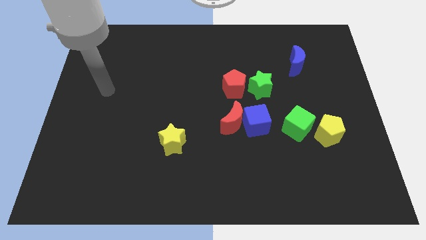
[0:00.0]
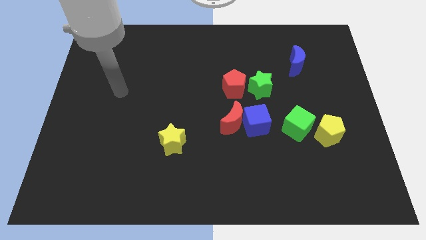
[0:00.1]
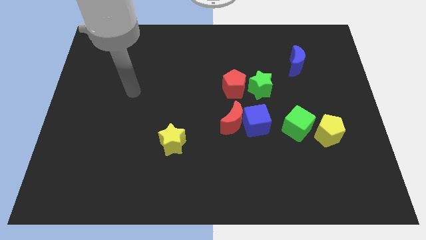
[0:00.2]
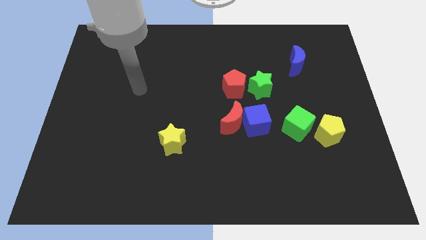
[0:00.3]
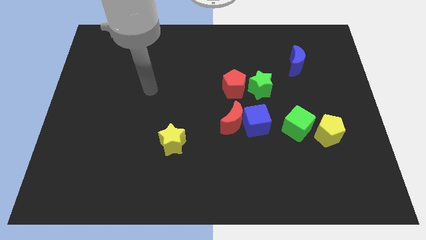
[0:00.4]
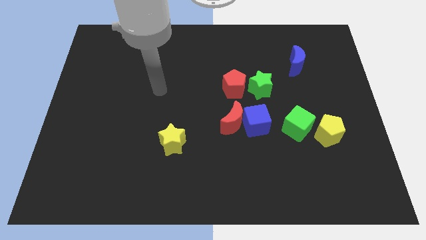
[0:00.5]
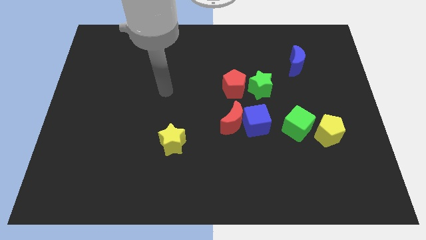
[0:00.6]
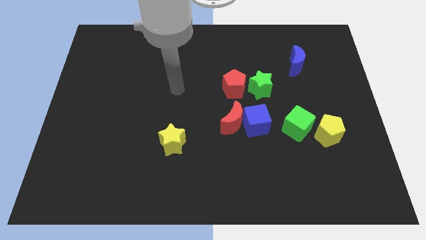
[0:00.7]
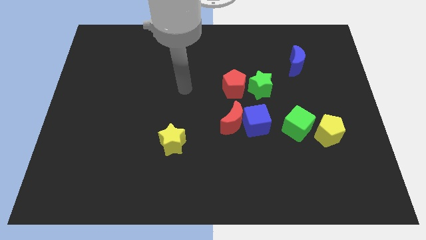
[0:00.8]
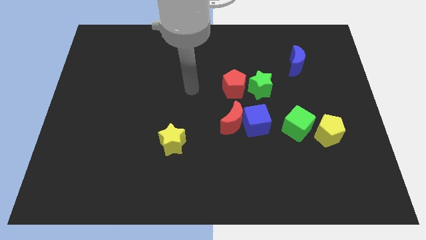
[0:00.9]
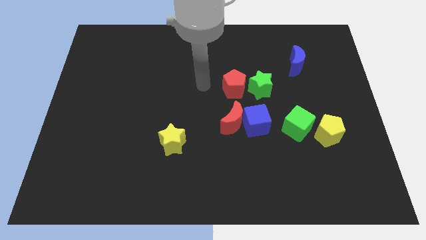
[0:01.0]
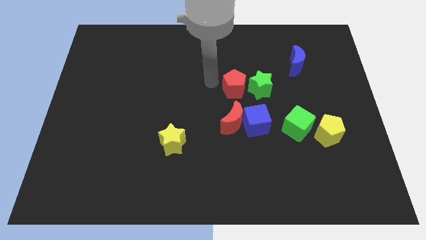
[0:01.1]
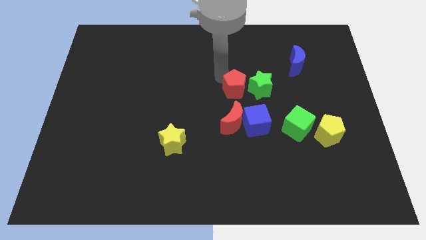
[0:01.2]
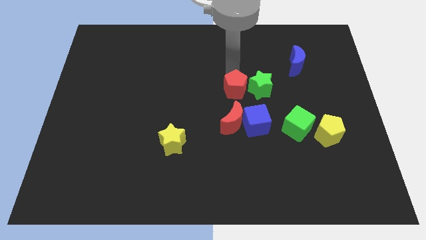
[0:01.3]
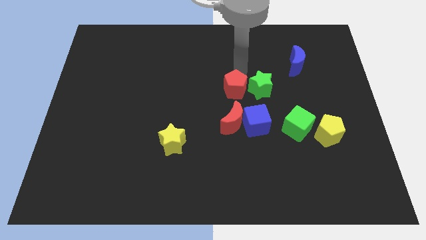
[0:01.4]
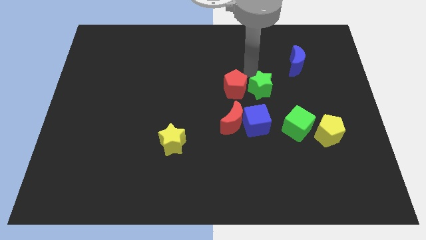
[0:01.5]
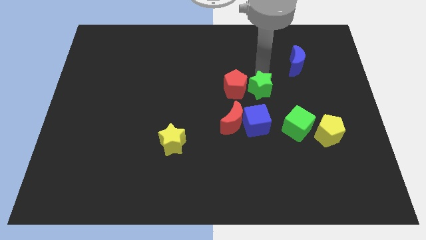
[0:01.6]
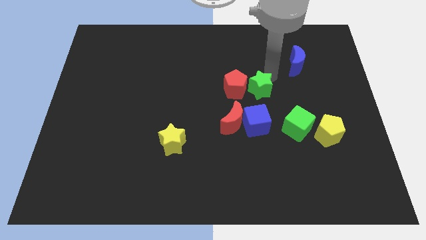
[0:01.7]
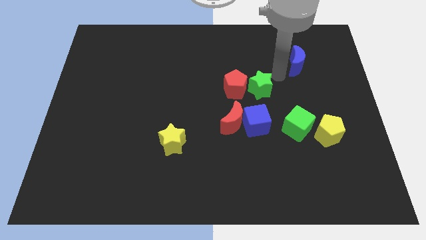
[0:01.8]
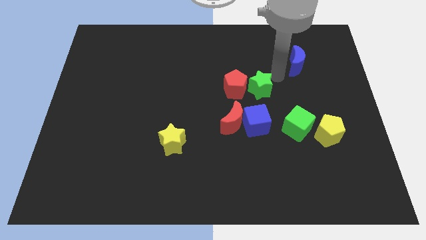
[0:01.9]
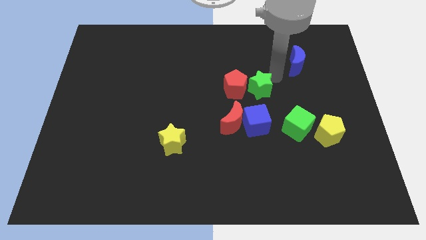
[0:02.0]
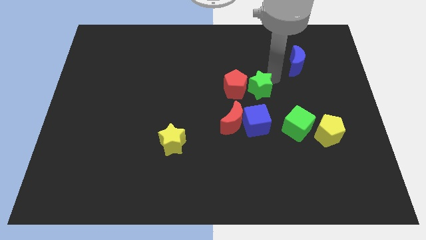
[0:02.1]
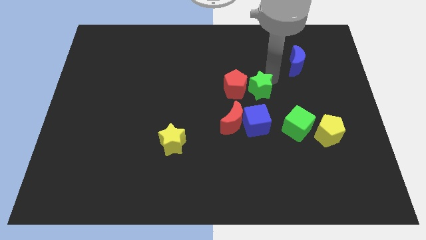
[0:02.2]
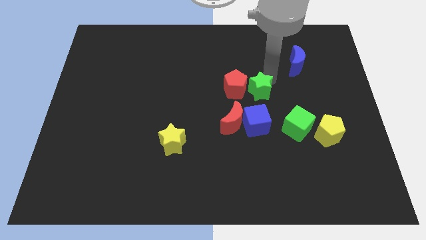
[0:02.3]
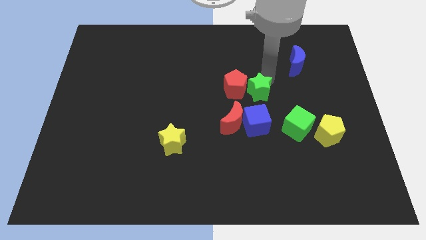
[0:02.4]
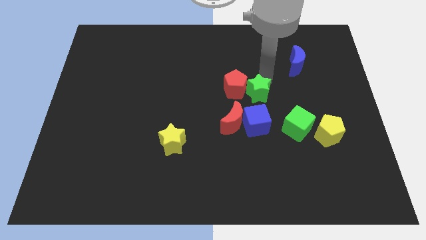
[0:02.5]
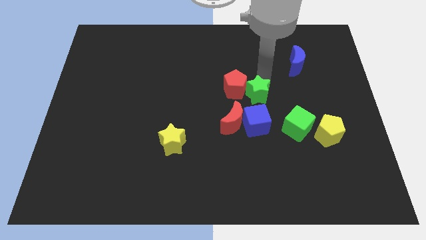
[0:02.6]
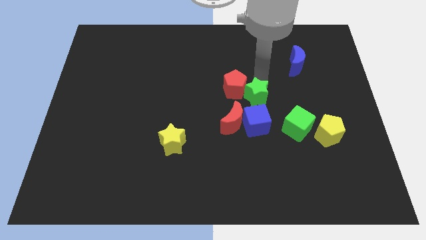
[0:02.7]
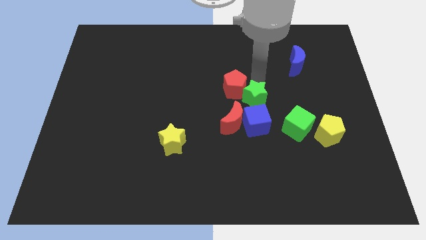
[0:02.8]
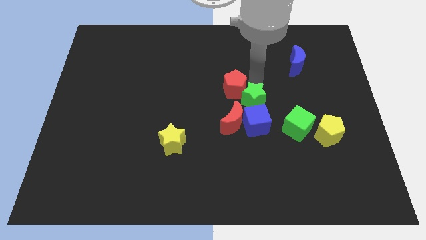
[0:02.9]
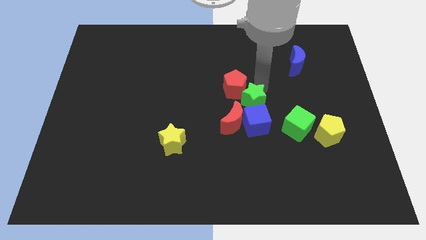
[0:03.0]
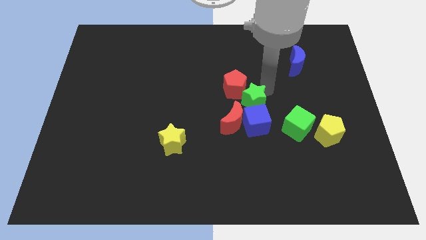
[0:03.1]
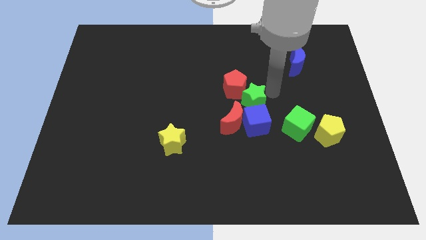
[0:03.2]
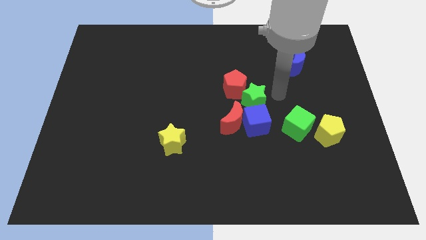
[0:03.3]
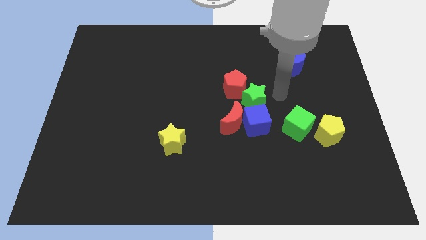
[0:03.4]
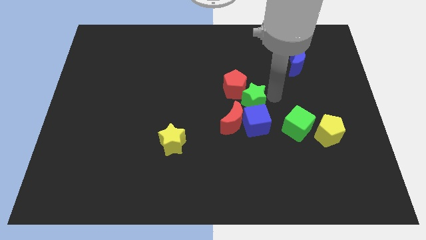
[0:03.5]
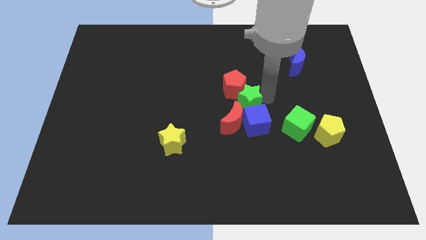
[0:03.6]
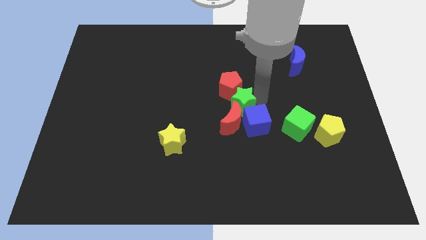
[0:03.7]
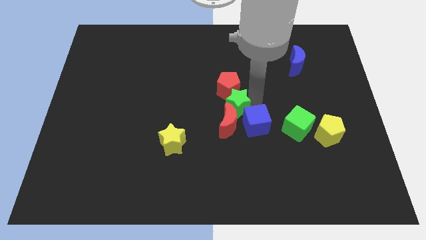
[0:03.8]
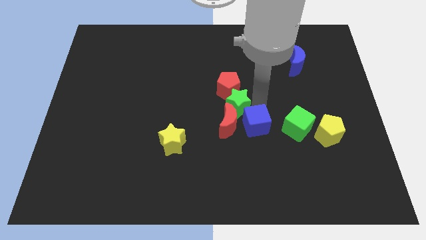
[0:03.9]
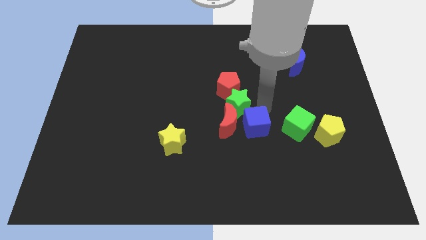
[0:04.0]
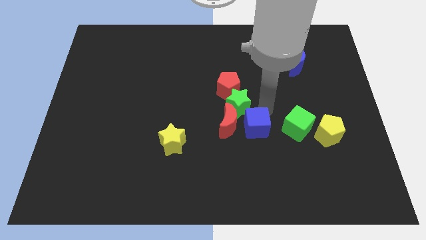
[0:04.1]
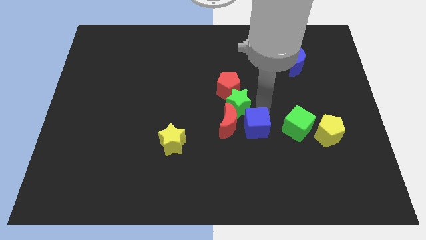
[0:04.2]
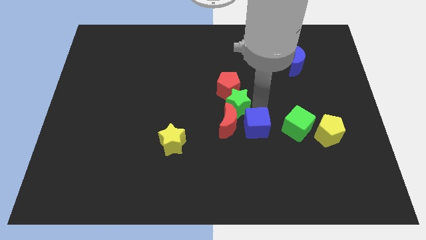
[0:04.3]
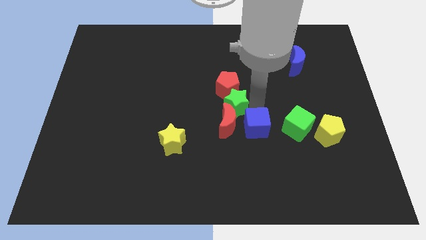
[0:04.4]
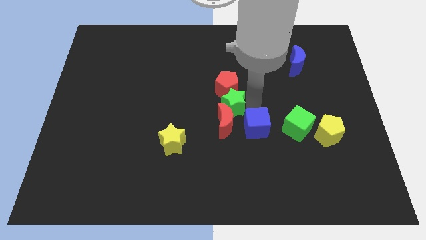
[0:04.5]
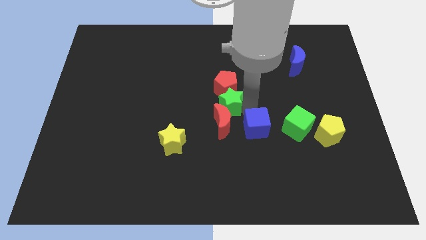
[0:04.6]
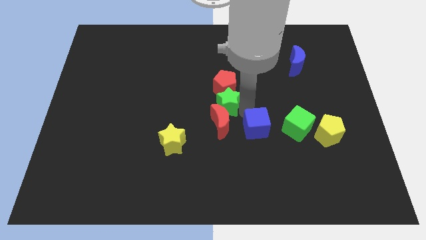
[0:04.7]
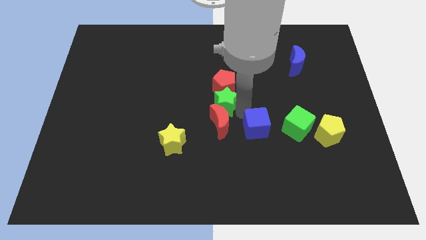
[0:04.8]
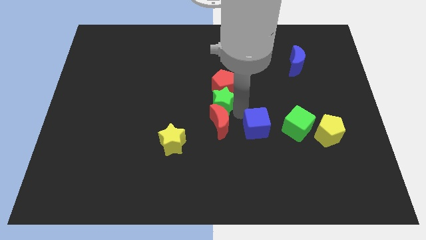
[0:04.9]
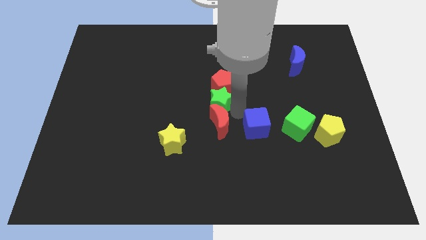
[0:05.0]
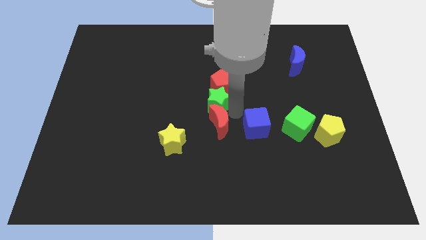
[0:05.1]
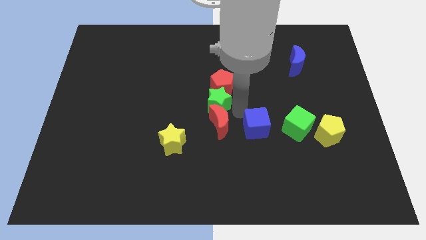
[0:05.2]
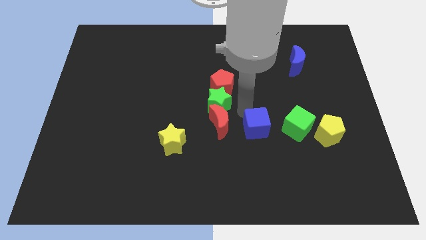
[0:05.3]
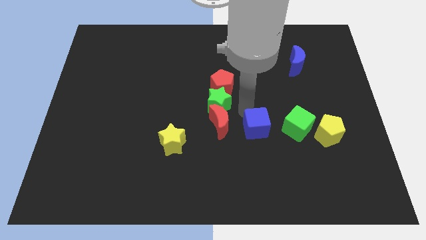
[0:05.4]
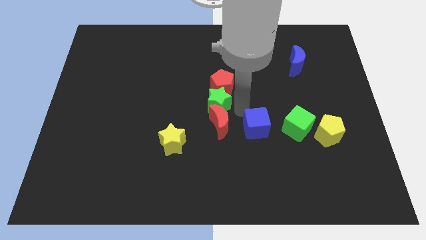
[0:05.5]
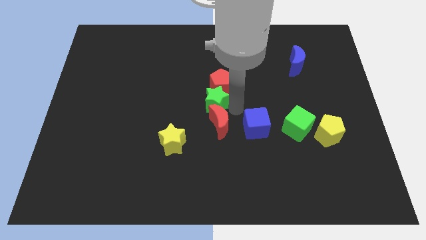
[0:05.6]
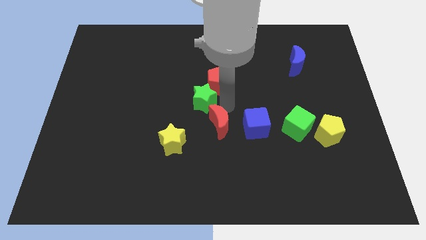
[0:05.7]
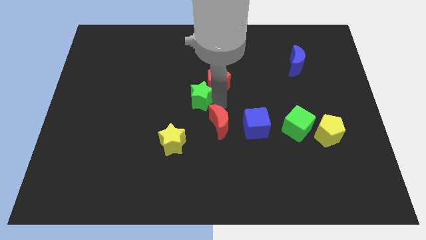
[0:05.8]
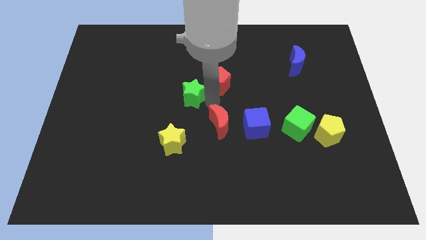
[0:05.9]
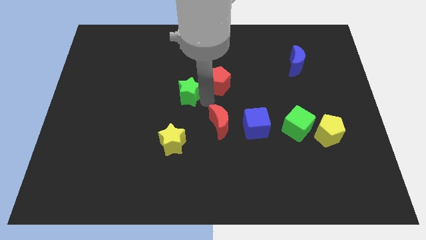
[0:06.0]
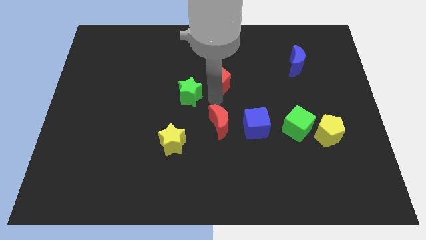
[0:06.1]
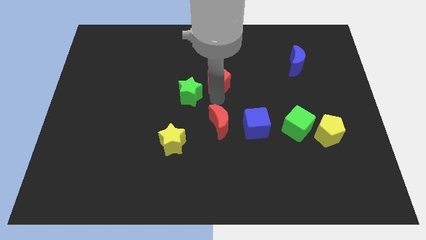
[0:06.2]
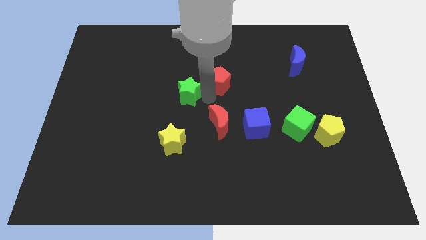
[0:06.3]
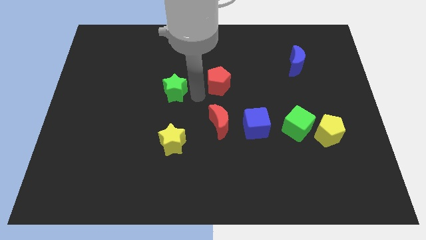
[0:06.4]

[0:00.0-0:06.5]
push the green star left

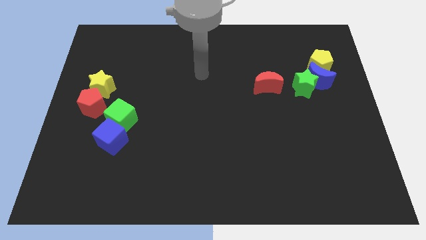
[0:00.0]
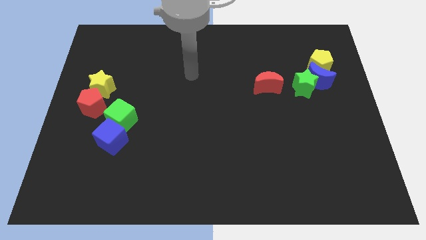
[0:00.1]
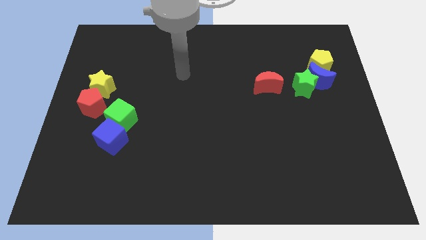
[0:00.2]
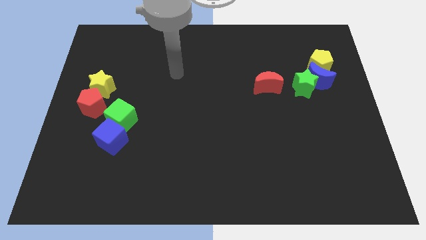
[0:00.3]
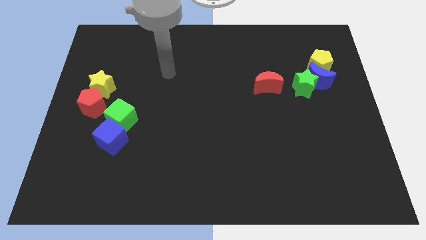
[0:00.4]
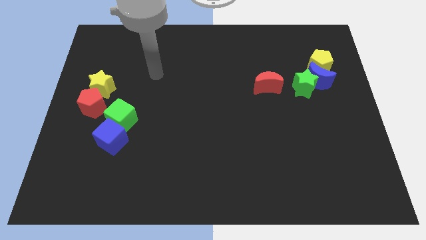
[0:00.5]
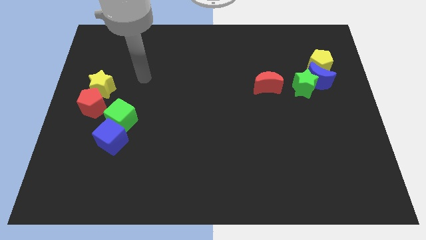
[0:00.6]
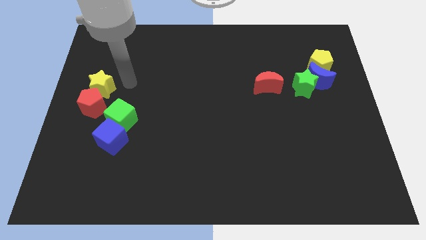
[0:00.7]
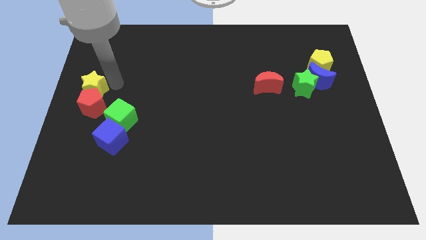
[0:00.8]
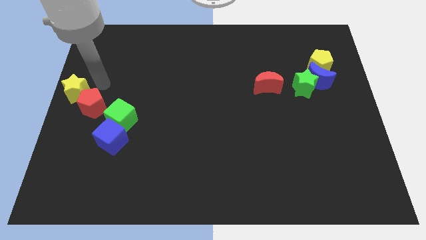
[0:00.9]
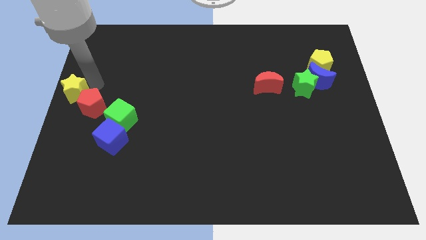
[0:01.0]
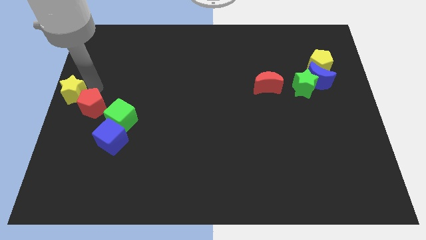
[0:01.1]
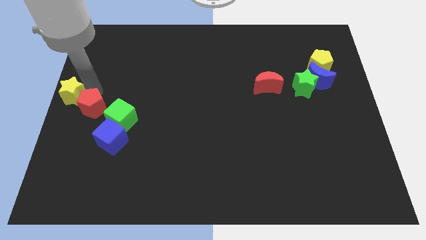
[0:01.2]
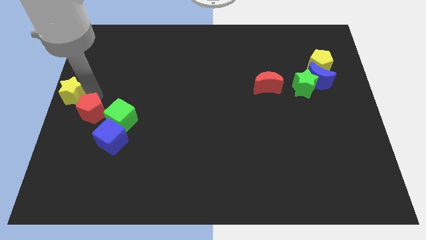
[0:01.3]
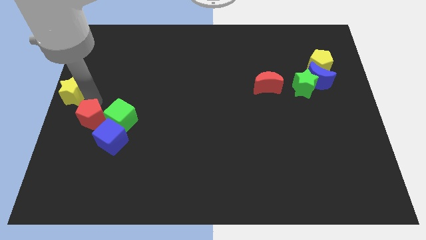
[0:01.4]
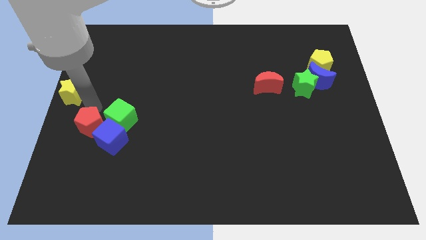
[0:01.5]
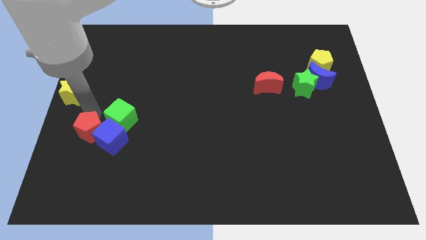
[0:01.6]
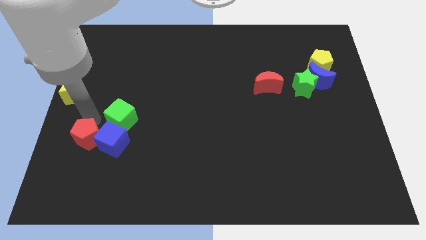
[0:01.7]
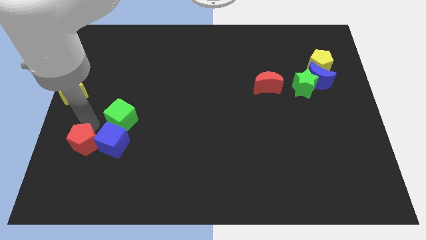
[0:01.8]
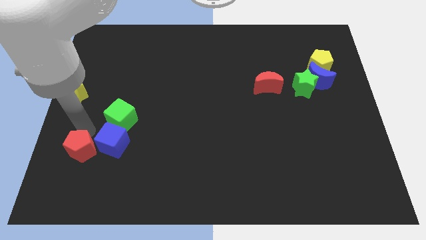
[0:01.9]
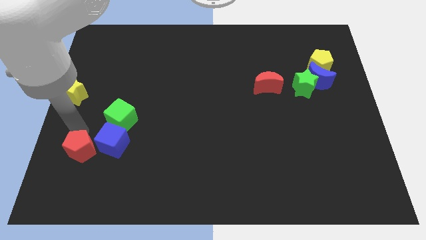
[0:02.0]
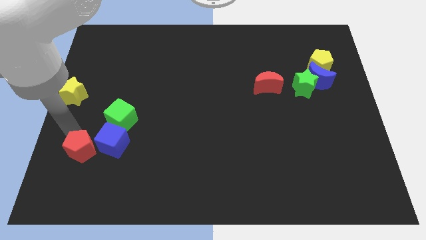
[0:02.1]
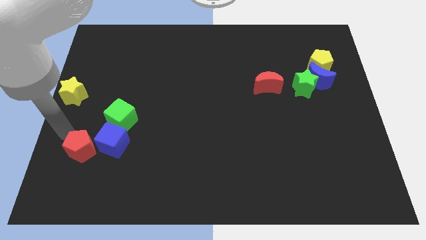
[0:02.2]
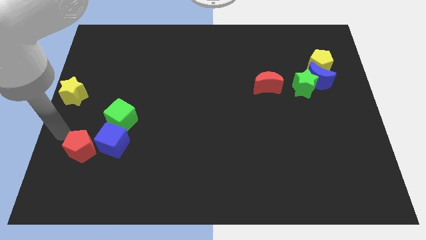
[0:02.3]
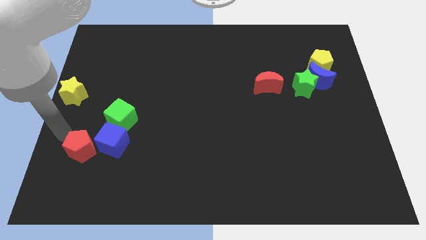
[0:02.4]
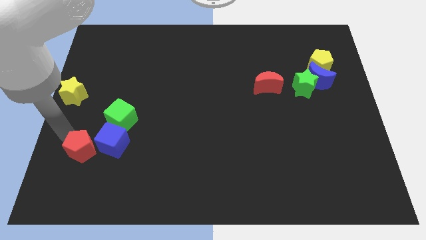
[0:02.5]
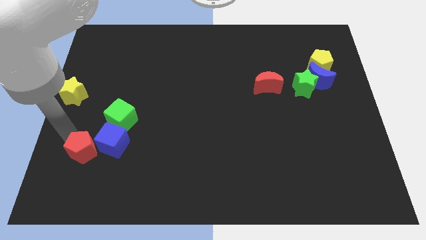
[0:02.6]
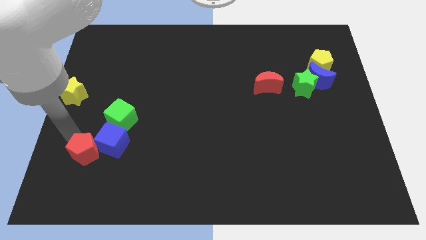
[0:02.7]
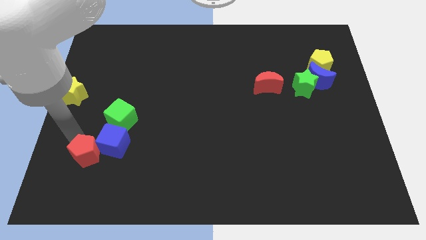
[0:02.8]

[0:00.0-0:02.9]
move the red pentagon slightly downwards and then right
